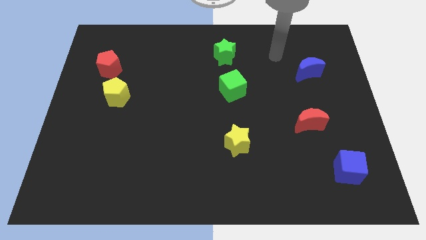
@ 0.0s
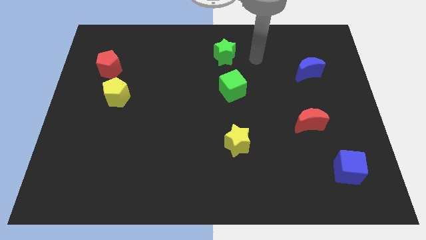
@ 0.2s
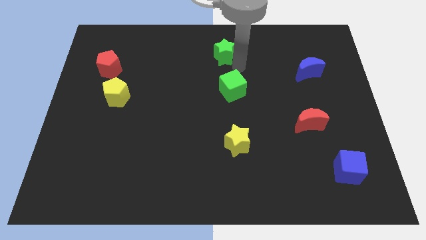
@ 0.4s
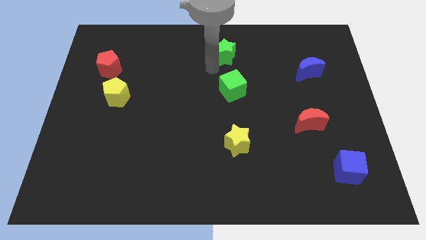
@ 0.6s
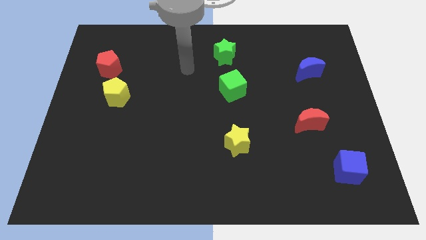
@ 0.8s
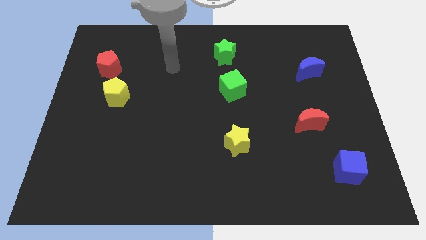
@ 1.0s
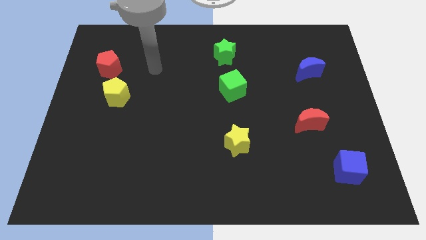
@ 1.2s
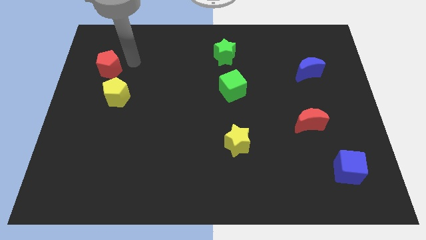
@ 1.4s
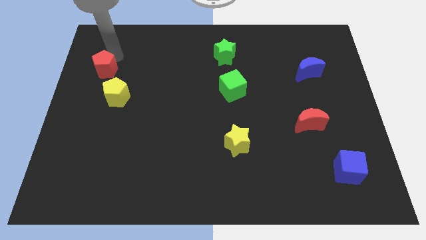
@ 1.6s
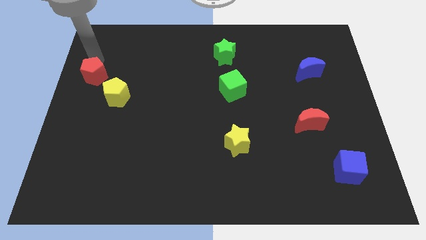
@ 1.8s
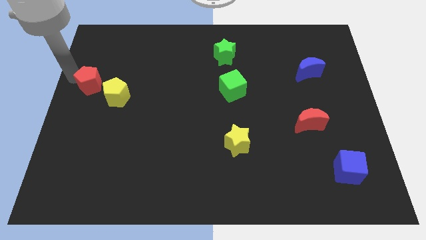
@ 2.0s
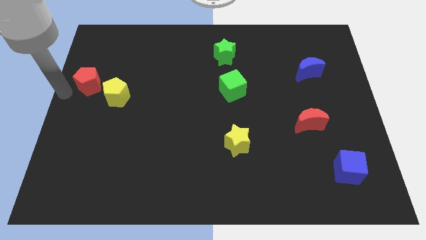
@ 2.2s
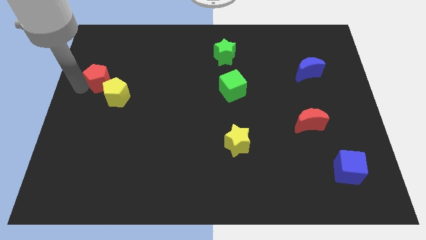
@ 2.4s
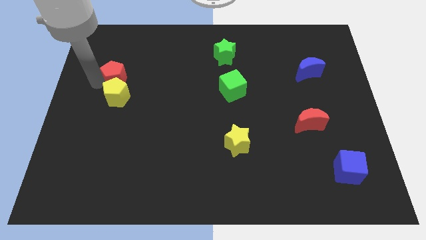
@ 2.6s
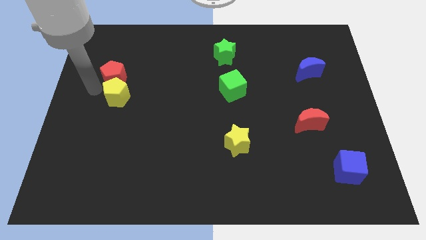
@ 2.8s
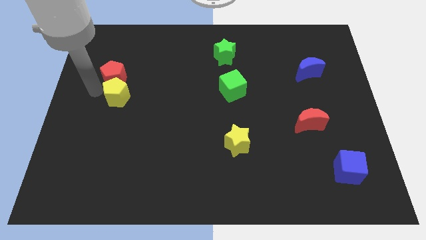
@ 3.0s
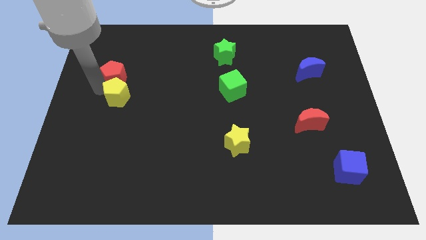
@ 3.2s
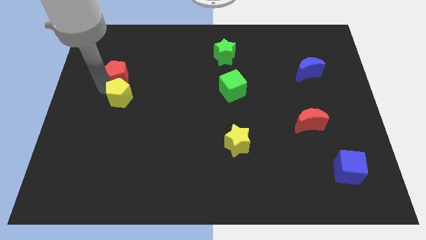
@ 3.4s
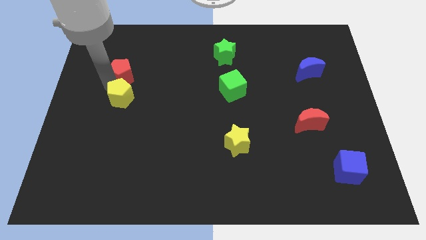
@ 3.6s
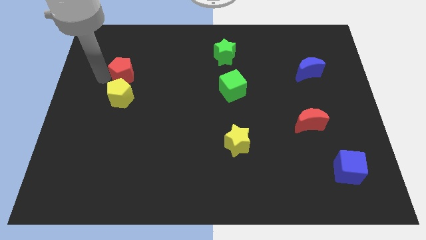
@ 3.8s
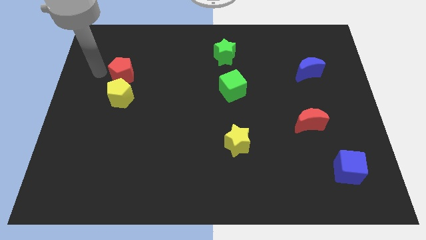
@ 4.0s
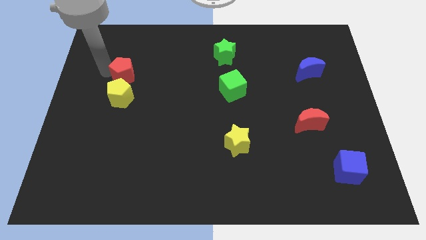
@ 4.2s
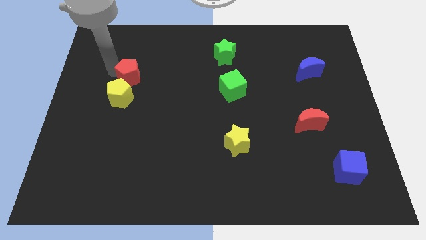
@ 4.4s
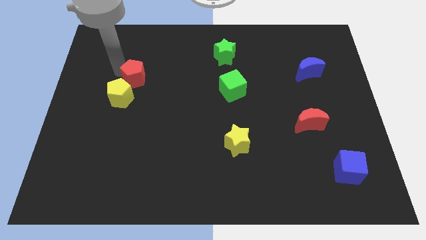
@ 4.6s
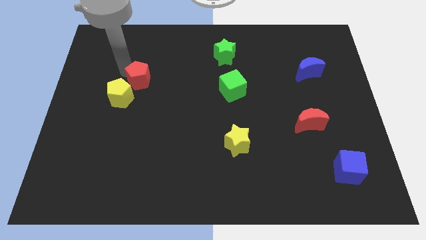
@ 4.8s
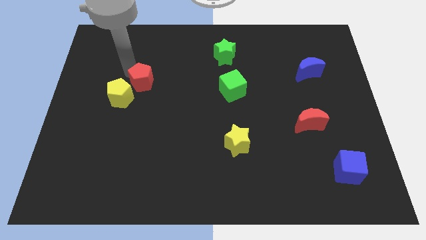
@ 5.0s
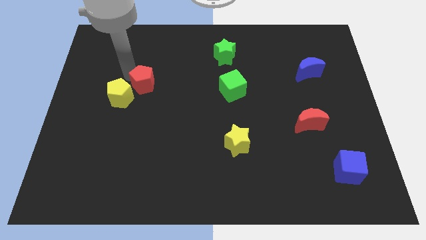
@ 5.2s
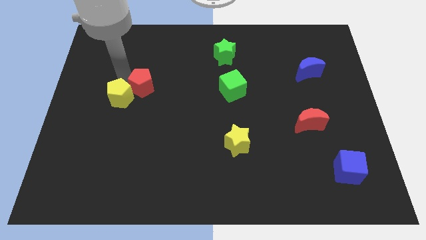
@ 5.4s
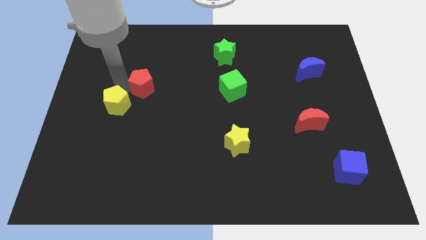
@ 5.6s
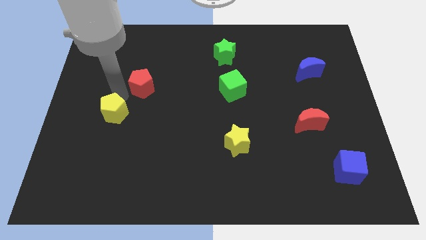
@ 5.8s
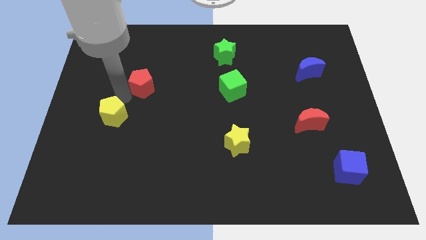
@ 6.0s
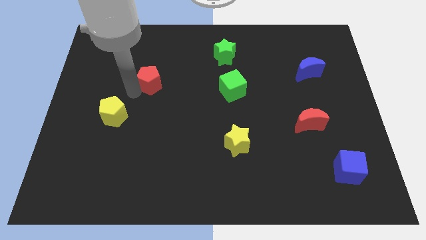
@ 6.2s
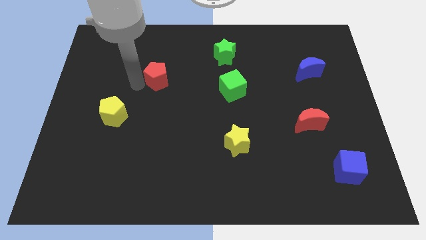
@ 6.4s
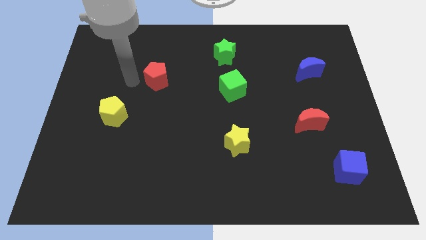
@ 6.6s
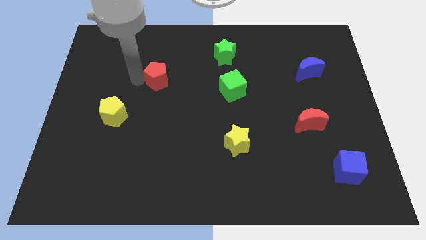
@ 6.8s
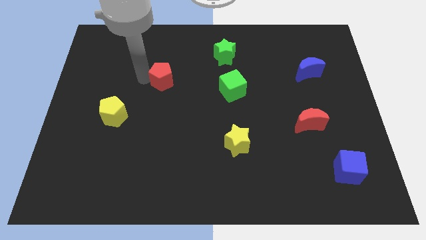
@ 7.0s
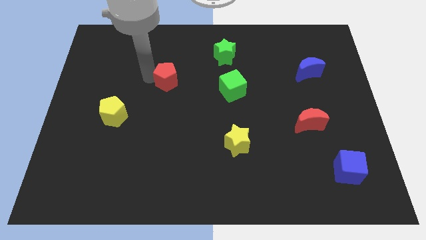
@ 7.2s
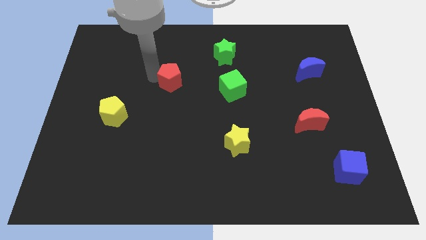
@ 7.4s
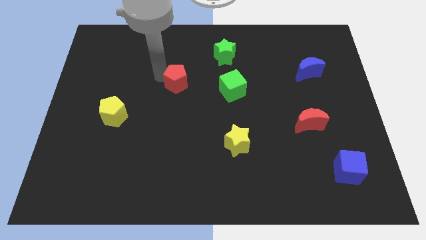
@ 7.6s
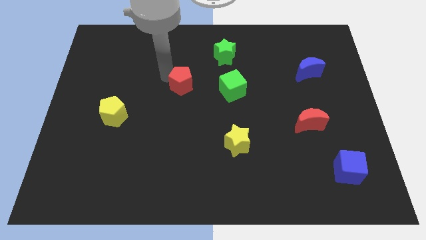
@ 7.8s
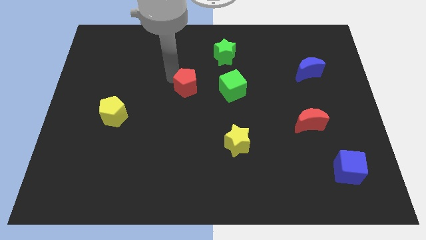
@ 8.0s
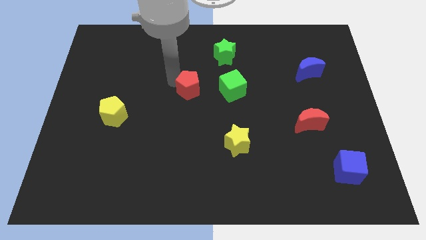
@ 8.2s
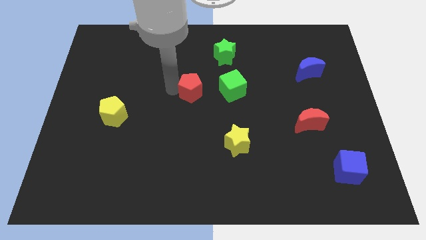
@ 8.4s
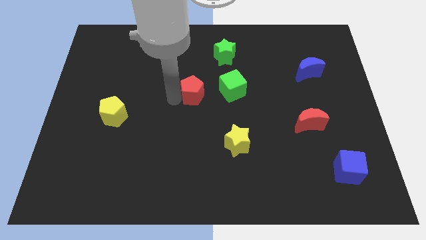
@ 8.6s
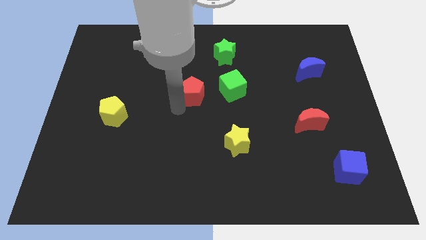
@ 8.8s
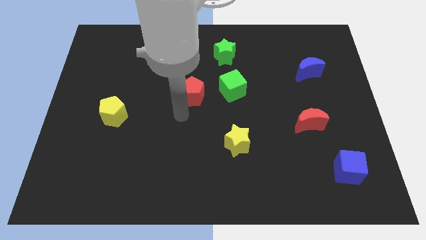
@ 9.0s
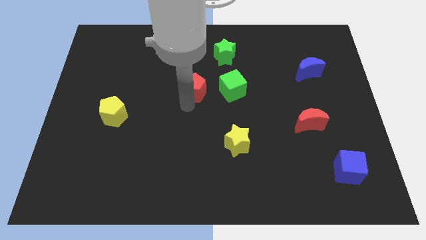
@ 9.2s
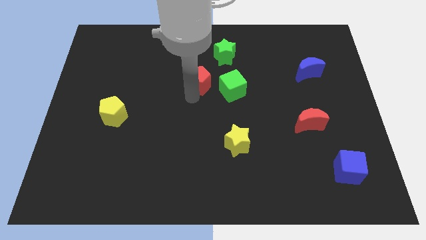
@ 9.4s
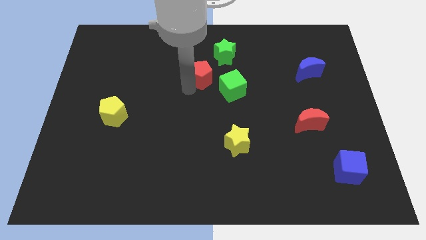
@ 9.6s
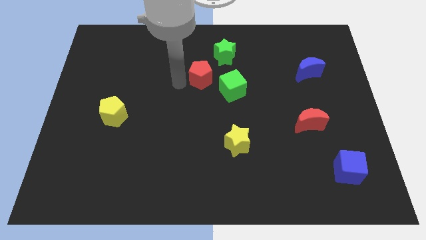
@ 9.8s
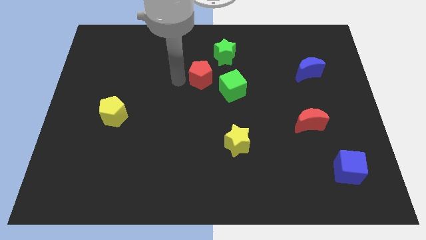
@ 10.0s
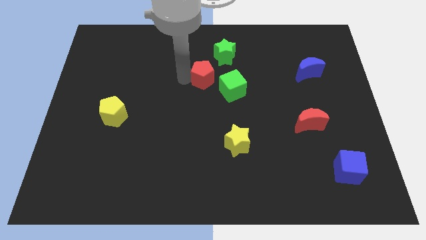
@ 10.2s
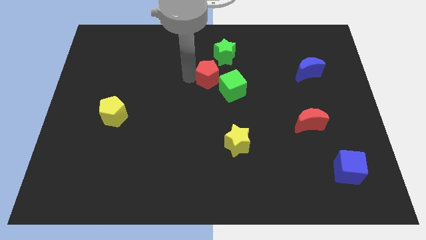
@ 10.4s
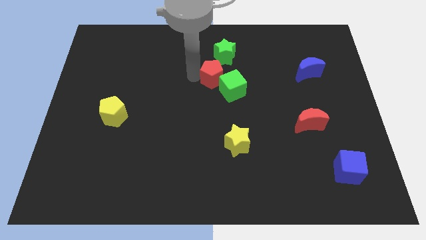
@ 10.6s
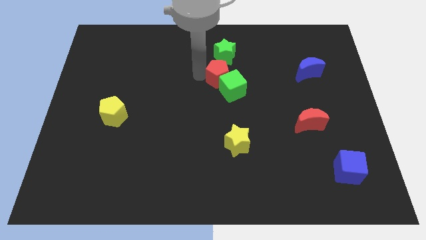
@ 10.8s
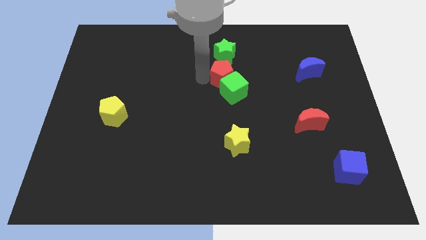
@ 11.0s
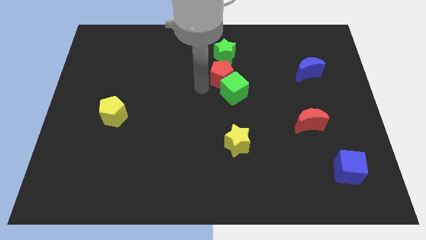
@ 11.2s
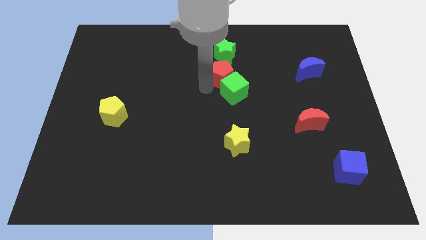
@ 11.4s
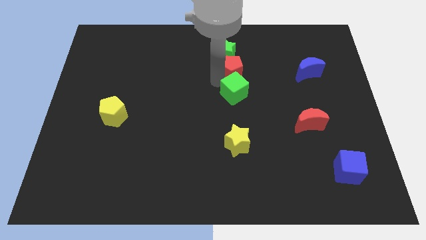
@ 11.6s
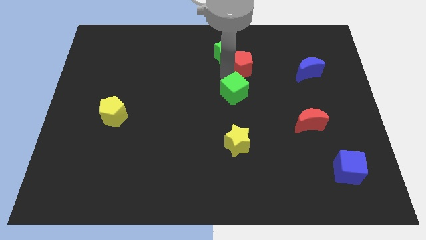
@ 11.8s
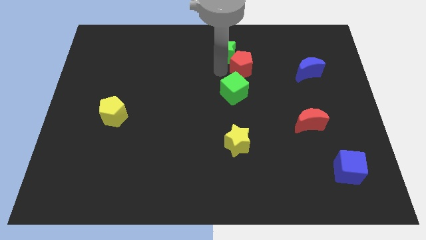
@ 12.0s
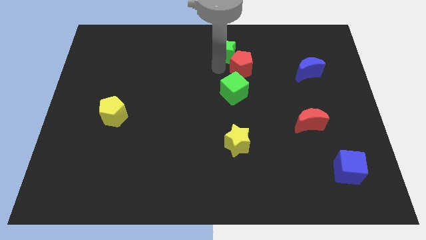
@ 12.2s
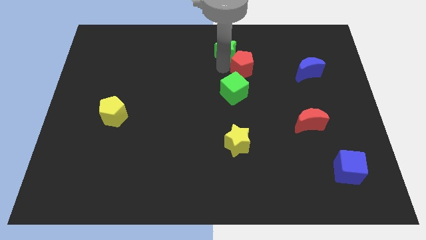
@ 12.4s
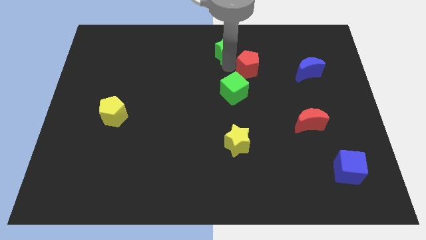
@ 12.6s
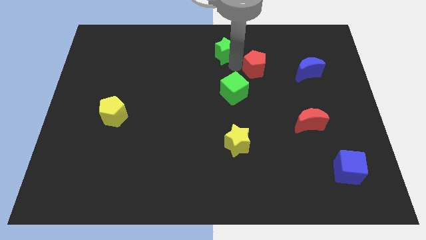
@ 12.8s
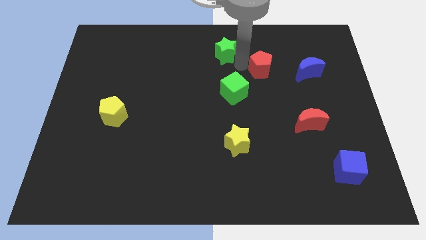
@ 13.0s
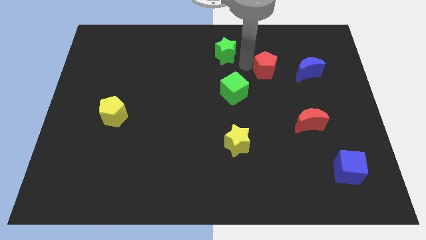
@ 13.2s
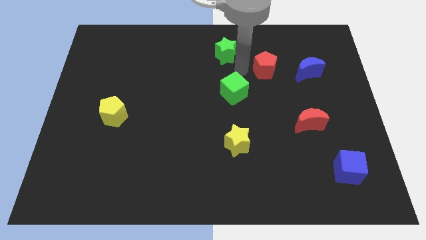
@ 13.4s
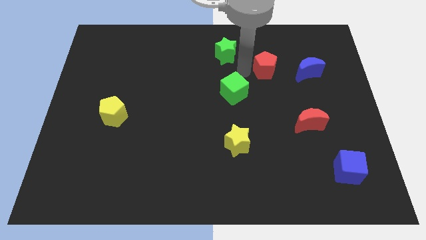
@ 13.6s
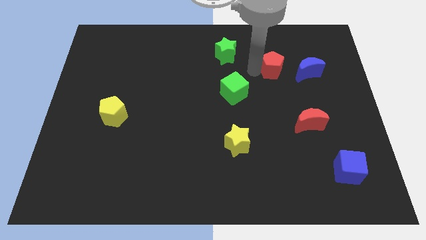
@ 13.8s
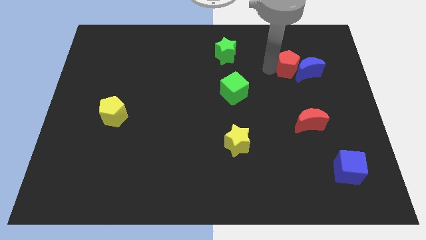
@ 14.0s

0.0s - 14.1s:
slide the red pentagon to the blue moon

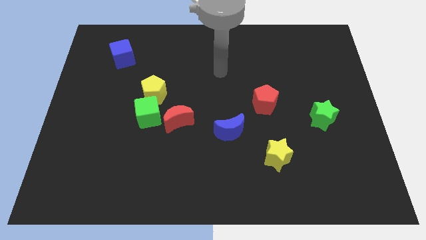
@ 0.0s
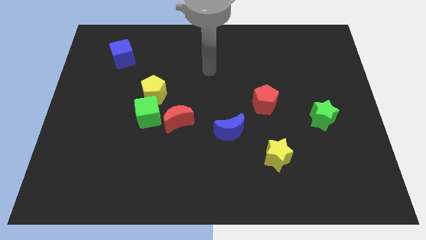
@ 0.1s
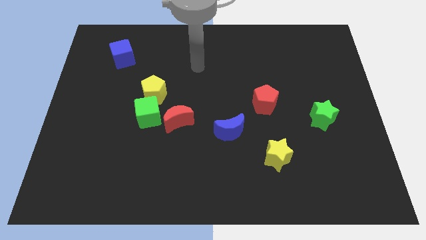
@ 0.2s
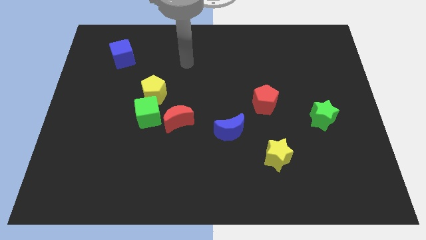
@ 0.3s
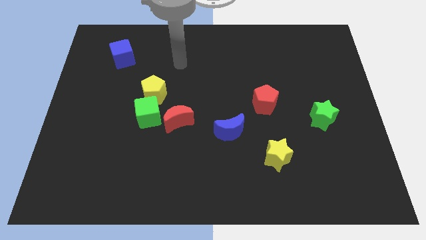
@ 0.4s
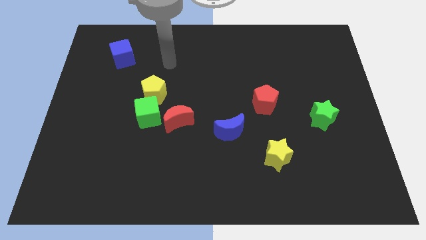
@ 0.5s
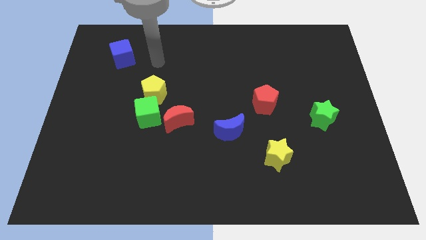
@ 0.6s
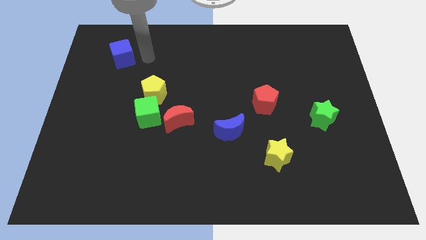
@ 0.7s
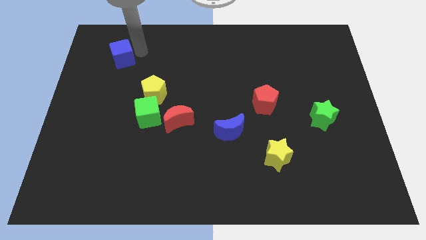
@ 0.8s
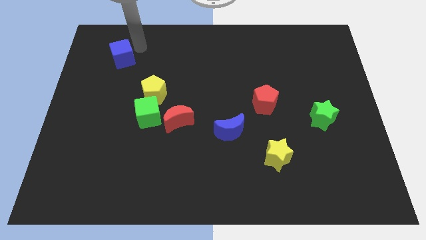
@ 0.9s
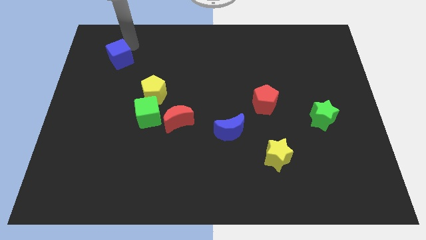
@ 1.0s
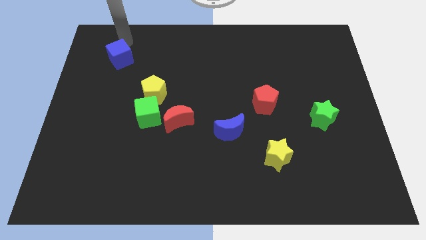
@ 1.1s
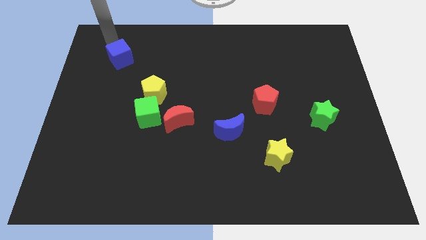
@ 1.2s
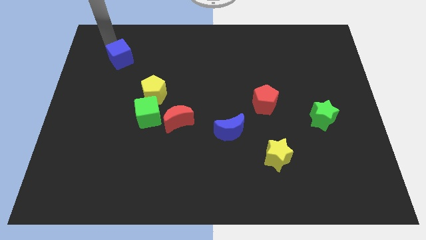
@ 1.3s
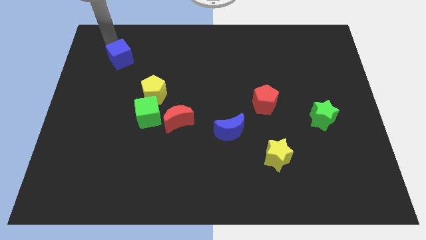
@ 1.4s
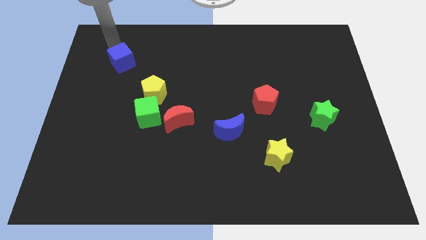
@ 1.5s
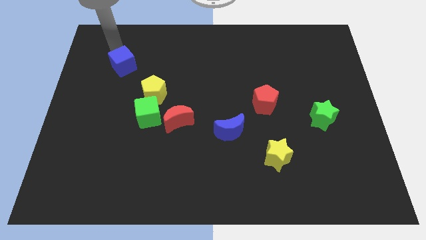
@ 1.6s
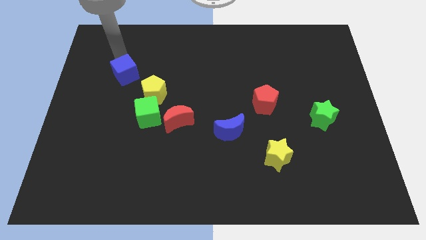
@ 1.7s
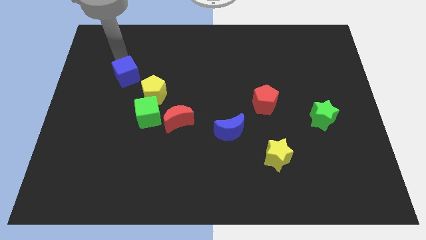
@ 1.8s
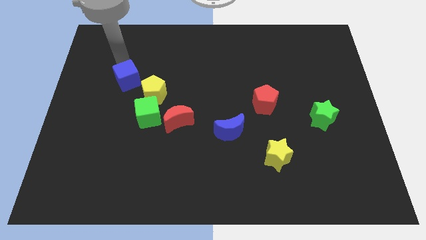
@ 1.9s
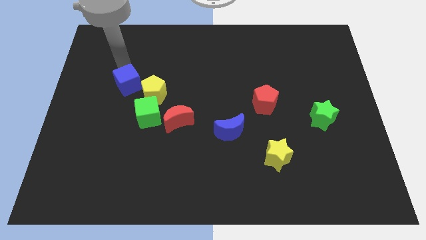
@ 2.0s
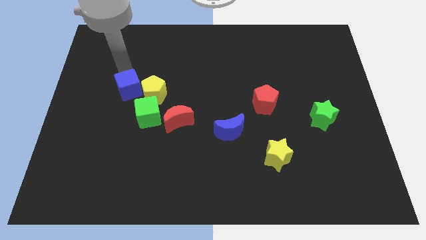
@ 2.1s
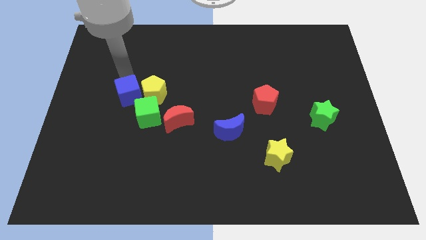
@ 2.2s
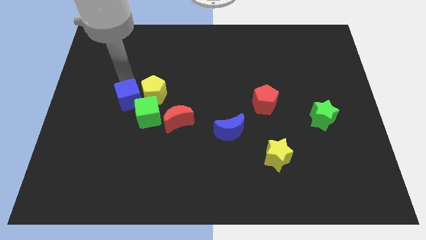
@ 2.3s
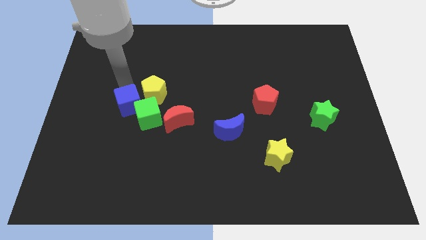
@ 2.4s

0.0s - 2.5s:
push the blue cube to the green cube
